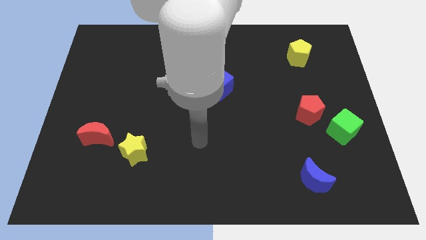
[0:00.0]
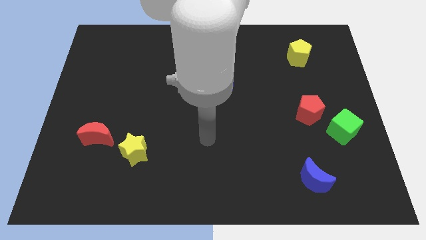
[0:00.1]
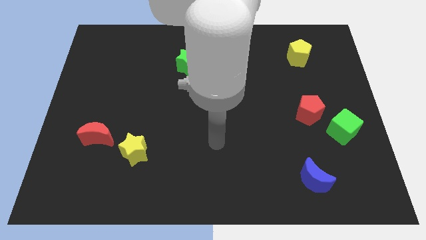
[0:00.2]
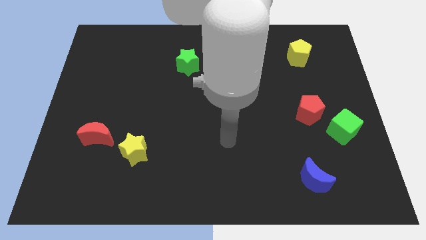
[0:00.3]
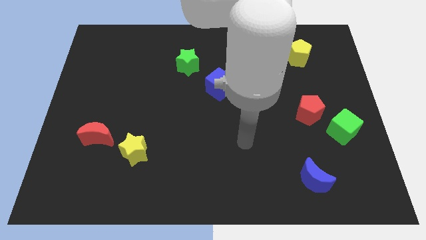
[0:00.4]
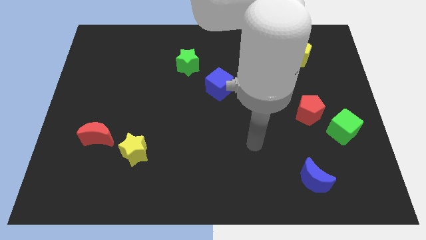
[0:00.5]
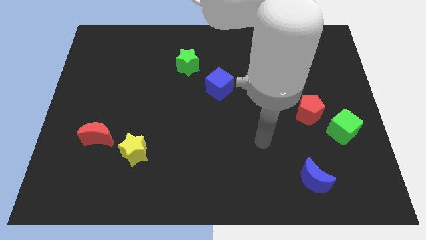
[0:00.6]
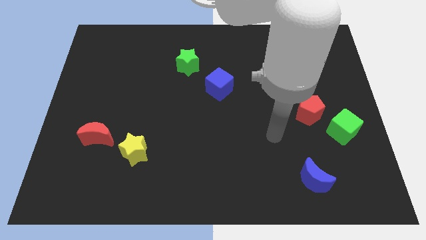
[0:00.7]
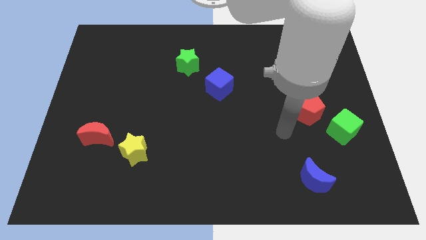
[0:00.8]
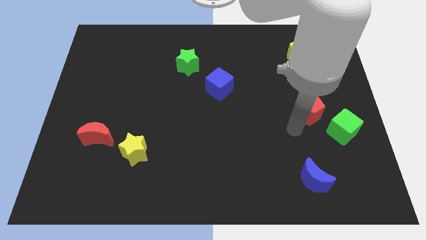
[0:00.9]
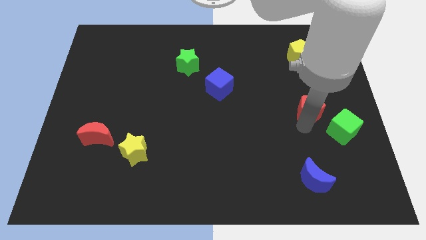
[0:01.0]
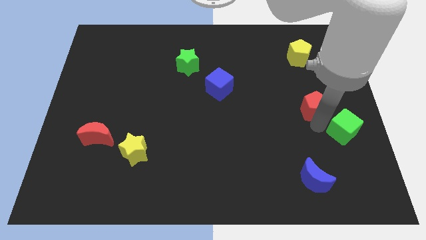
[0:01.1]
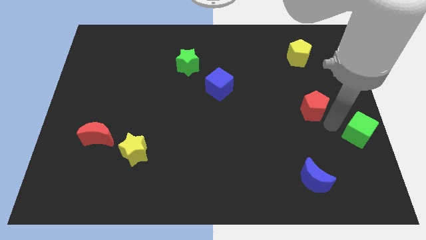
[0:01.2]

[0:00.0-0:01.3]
pull the red pentagon apart from the green cube

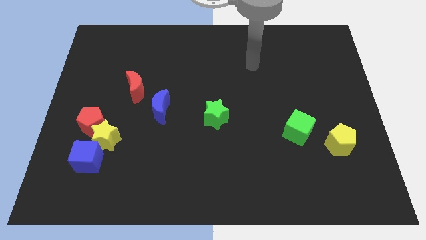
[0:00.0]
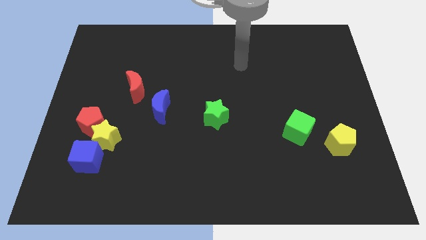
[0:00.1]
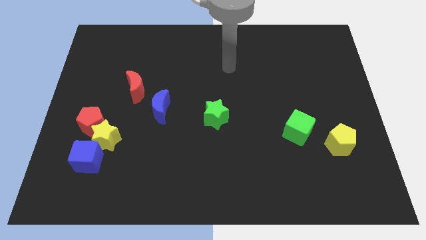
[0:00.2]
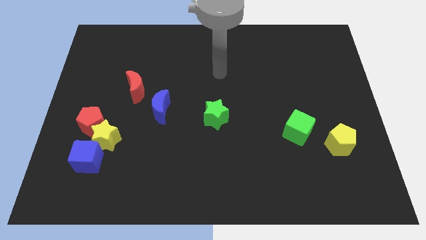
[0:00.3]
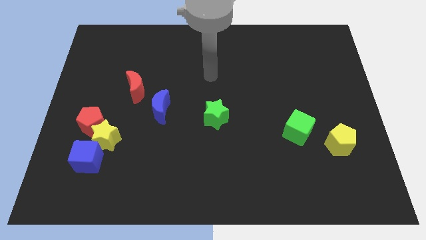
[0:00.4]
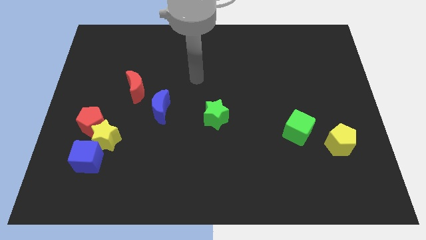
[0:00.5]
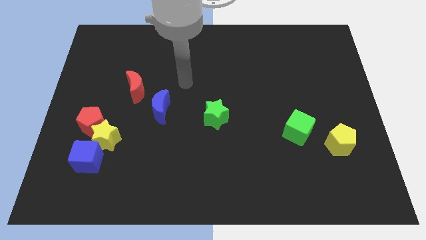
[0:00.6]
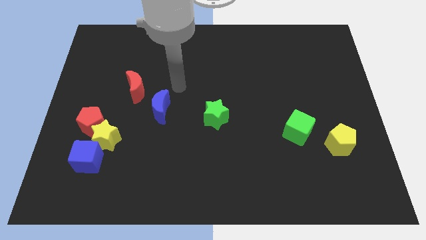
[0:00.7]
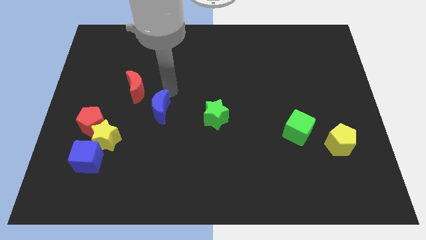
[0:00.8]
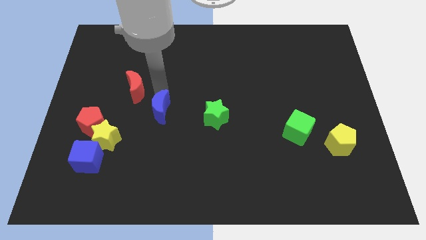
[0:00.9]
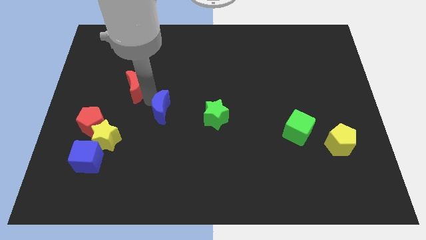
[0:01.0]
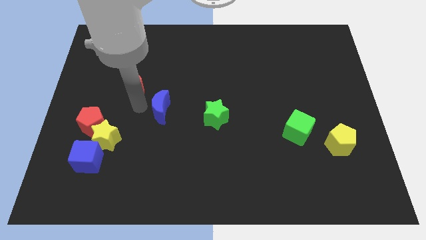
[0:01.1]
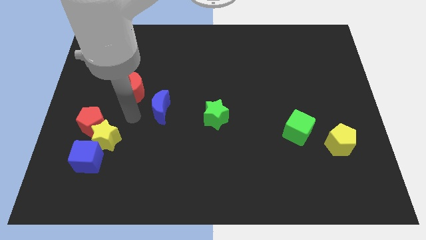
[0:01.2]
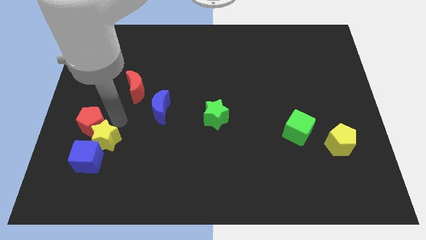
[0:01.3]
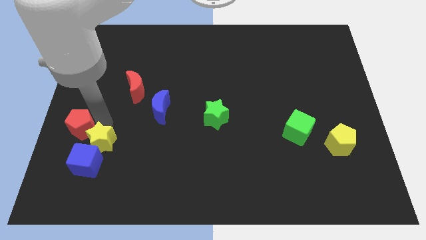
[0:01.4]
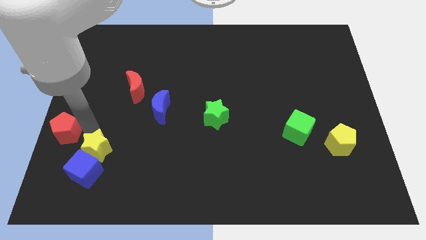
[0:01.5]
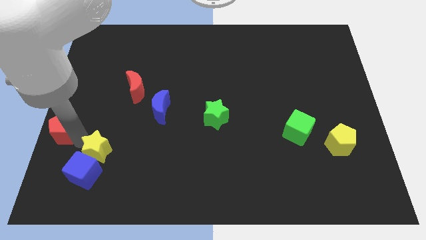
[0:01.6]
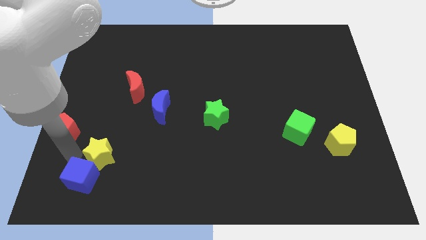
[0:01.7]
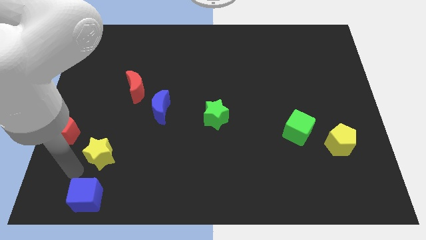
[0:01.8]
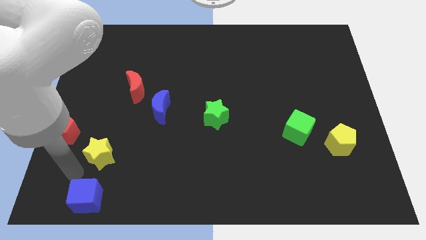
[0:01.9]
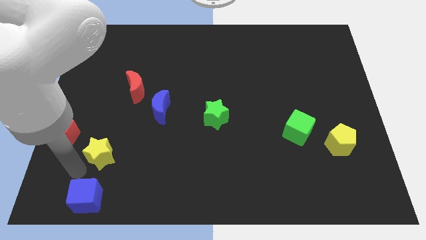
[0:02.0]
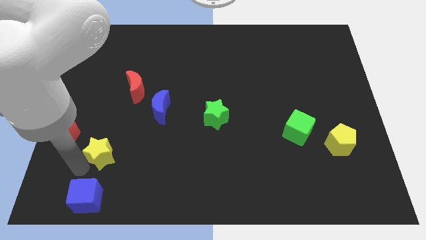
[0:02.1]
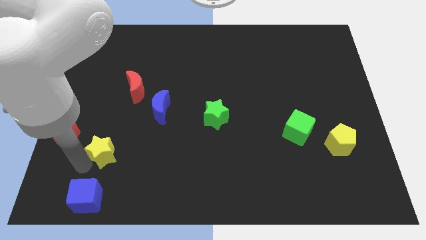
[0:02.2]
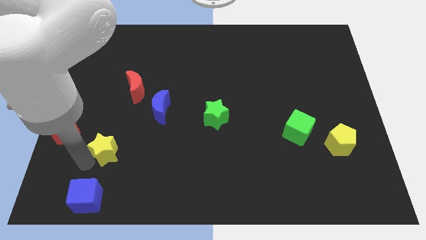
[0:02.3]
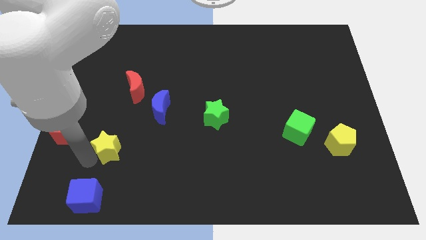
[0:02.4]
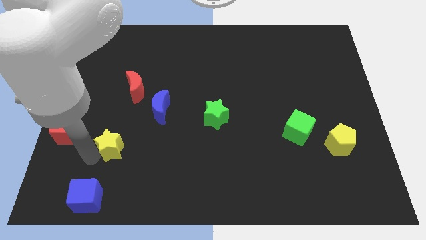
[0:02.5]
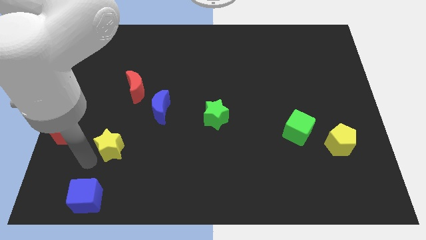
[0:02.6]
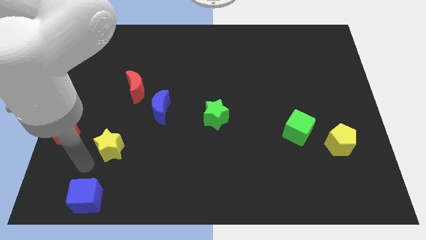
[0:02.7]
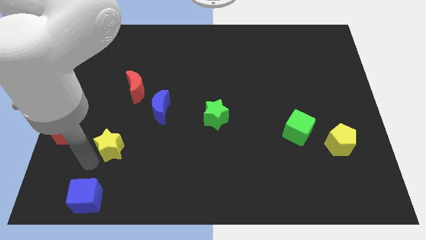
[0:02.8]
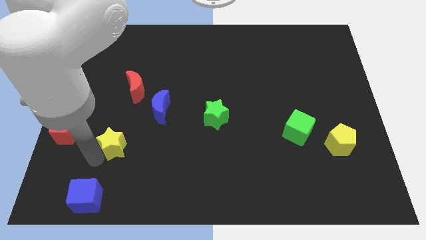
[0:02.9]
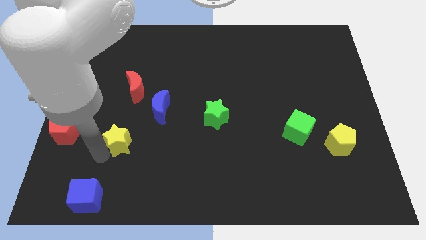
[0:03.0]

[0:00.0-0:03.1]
separate the yellow star from the red pentagon and blue cube

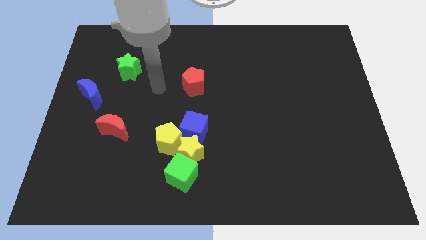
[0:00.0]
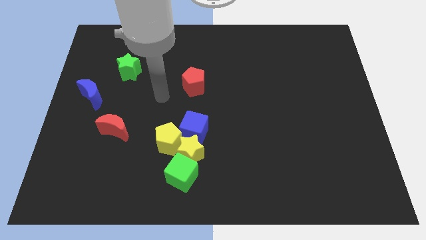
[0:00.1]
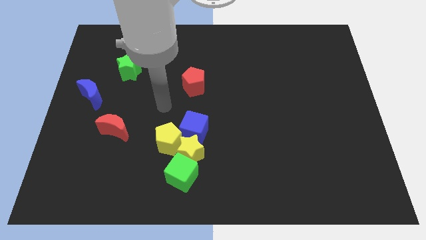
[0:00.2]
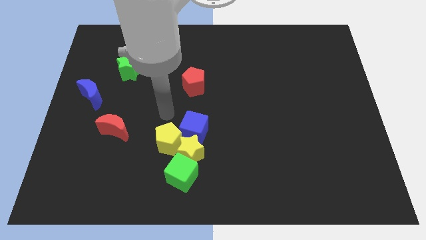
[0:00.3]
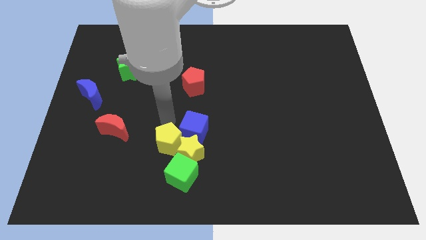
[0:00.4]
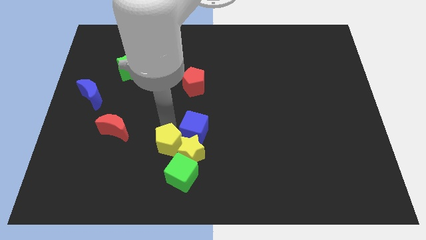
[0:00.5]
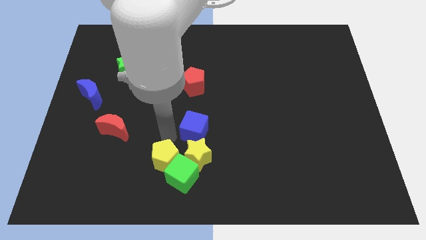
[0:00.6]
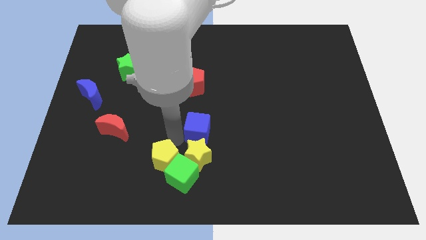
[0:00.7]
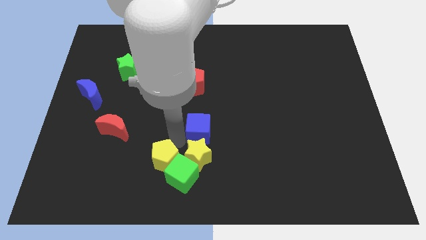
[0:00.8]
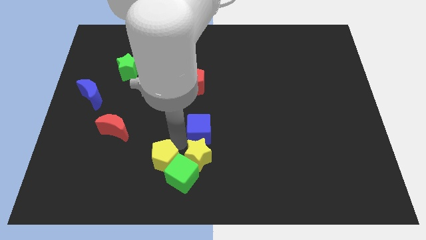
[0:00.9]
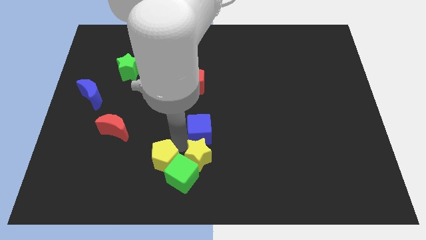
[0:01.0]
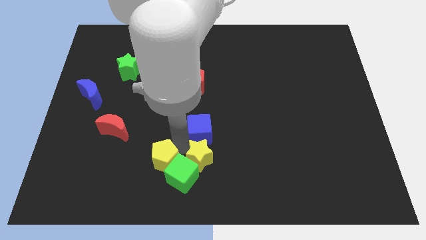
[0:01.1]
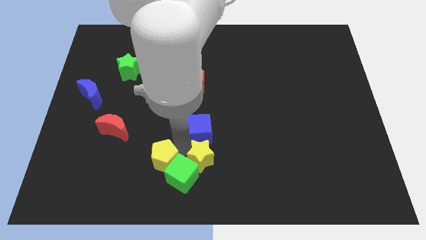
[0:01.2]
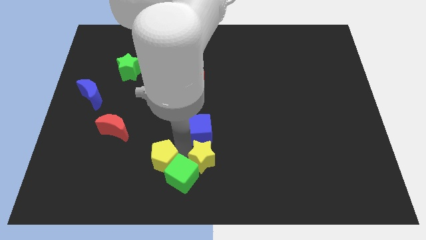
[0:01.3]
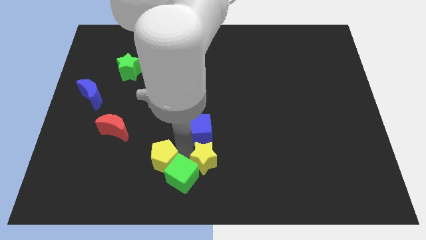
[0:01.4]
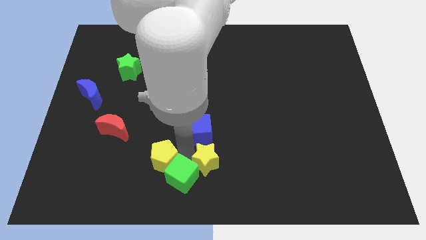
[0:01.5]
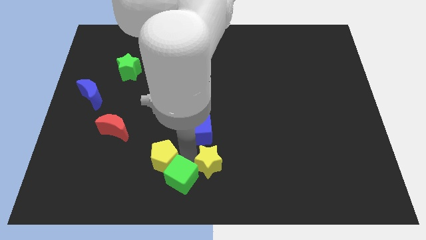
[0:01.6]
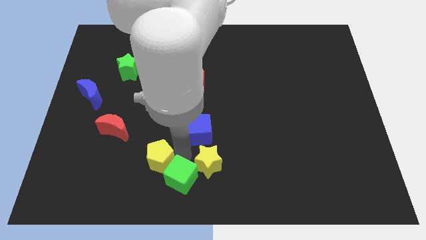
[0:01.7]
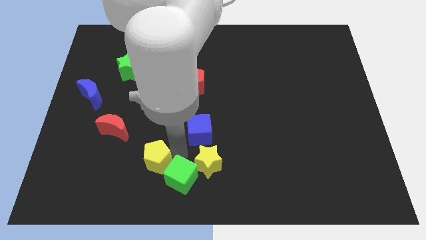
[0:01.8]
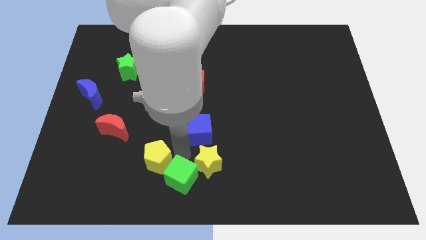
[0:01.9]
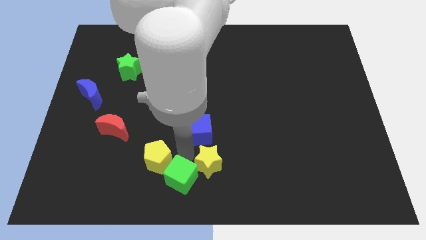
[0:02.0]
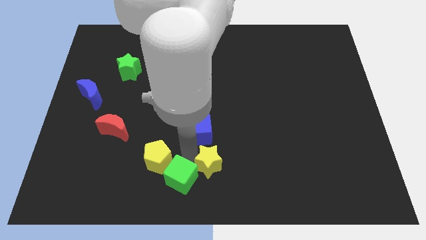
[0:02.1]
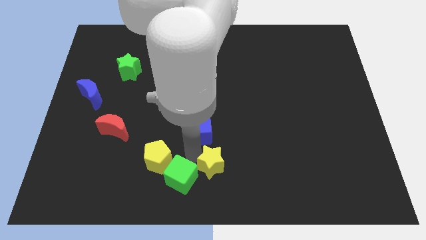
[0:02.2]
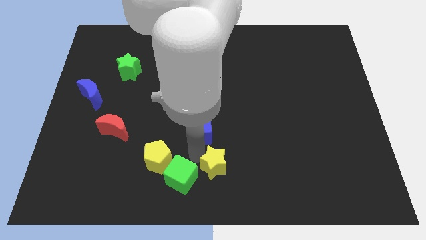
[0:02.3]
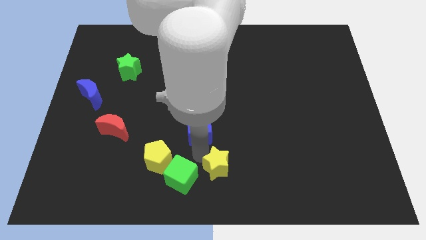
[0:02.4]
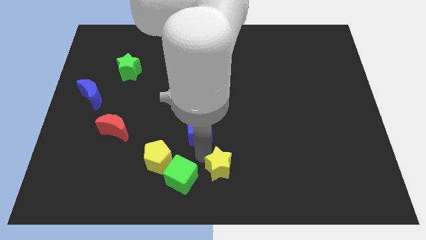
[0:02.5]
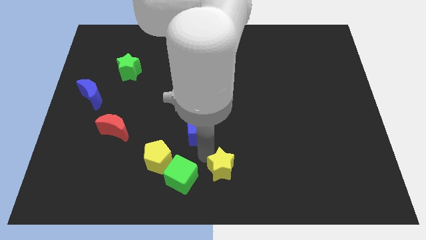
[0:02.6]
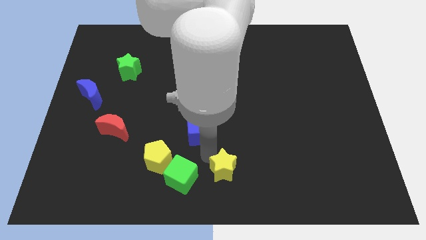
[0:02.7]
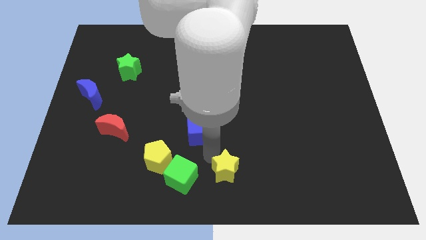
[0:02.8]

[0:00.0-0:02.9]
separate the yellow star from the green cube, yellow pentagon, and blue cube

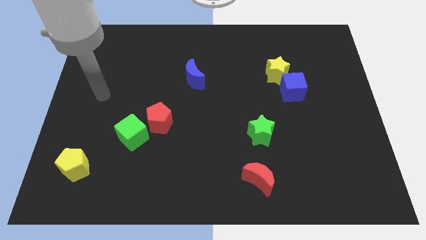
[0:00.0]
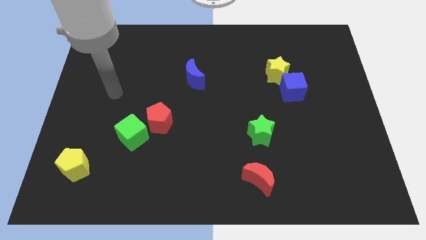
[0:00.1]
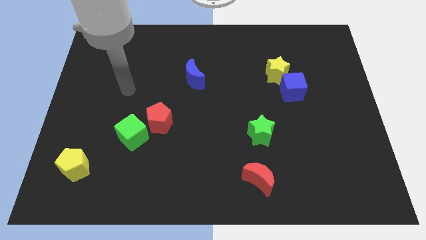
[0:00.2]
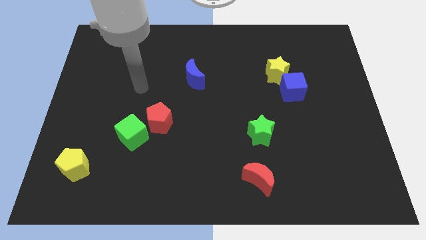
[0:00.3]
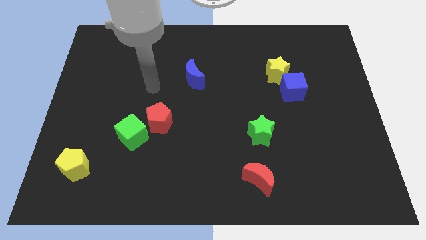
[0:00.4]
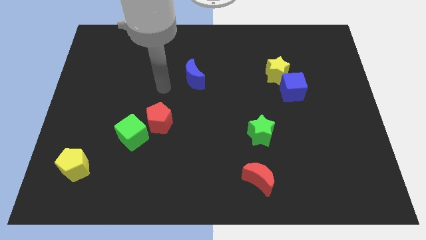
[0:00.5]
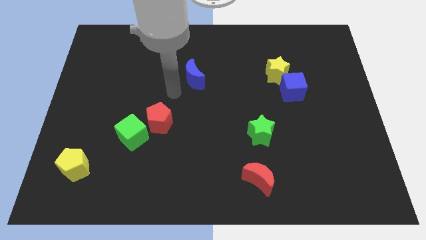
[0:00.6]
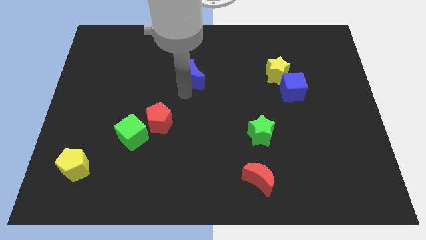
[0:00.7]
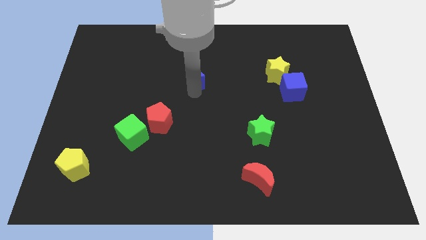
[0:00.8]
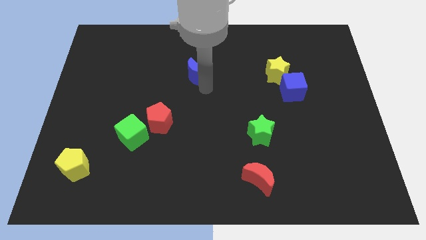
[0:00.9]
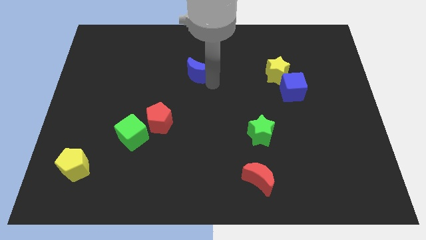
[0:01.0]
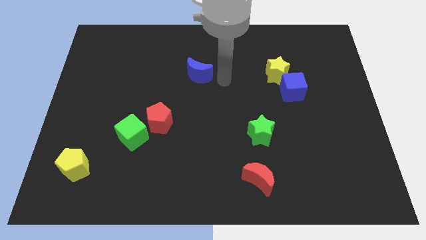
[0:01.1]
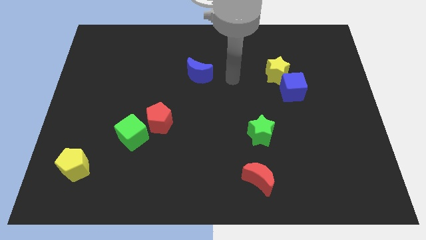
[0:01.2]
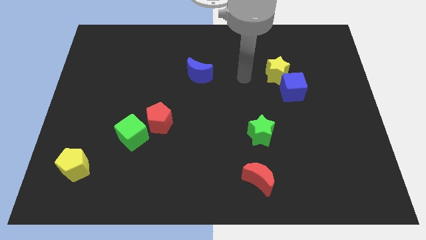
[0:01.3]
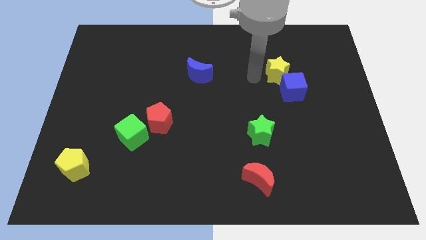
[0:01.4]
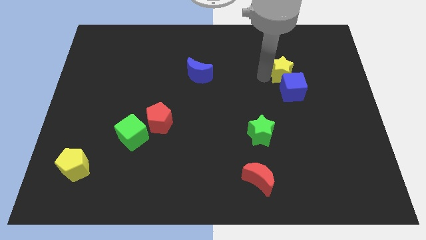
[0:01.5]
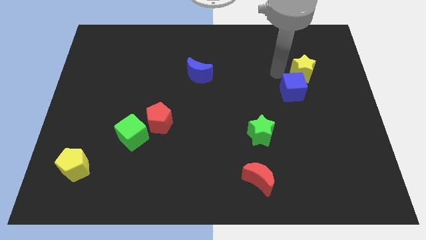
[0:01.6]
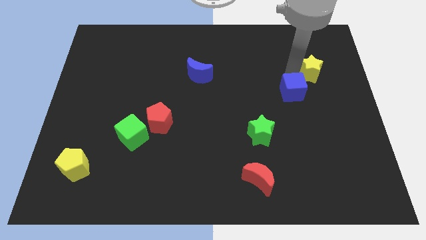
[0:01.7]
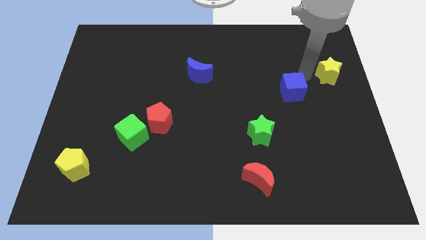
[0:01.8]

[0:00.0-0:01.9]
move the blue cube away from the yellow star

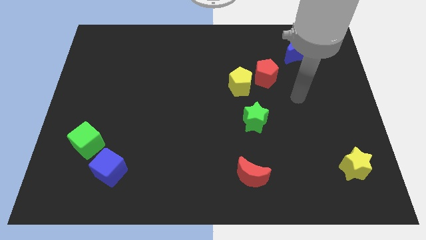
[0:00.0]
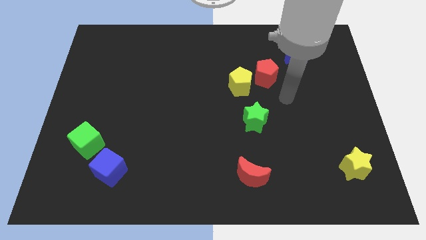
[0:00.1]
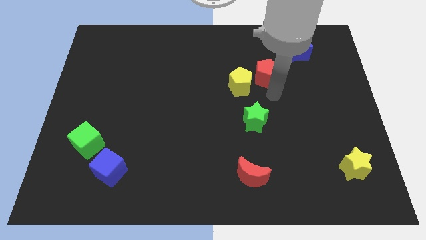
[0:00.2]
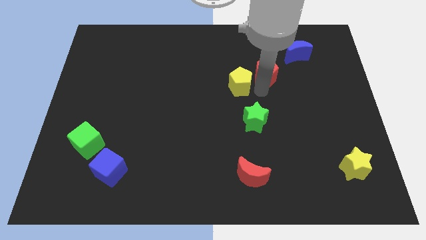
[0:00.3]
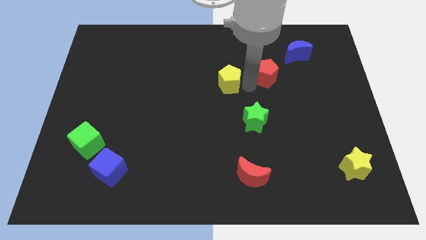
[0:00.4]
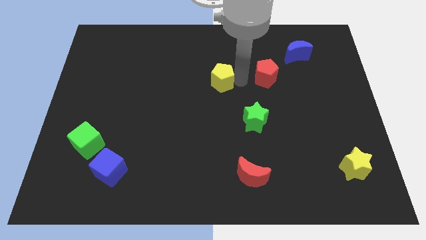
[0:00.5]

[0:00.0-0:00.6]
separate the red pentagon from the yellow pentagon
